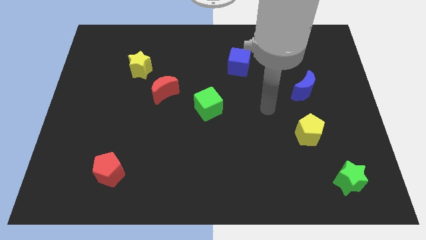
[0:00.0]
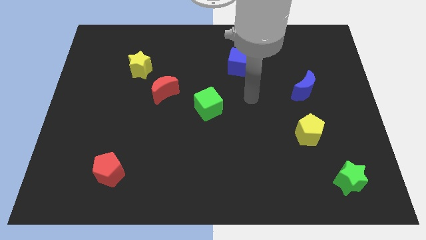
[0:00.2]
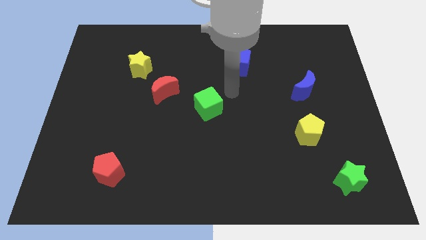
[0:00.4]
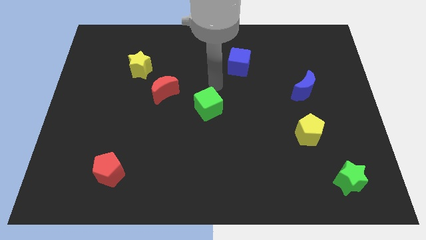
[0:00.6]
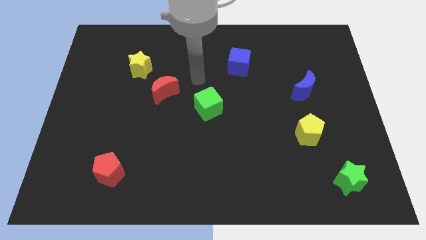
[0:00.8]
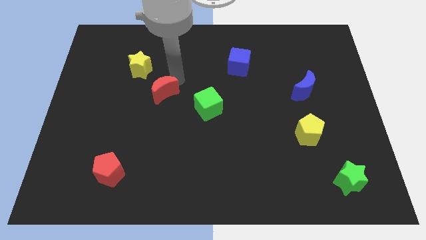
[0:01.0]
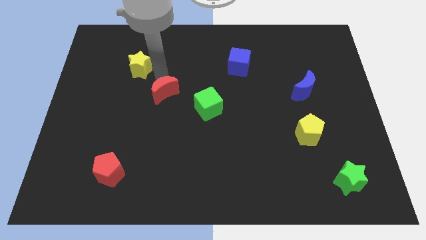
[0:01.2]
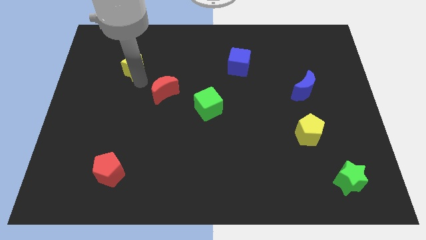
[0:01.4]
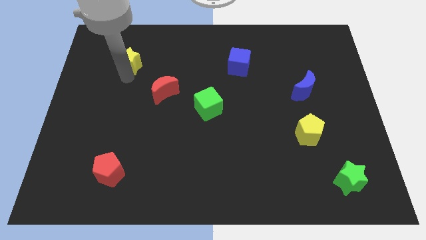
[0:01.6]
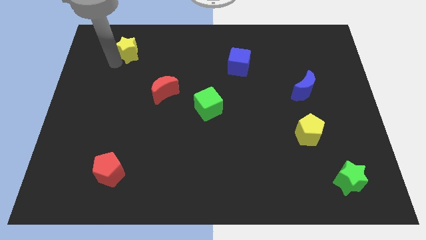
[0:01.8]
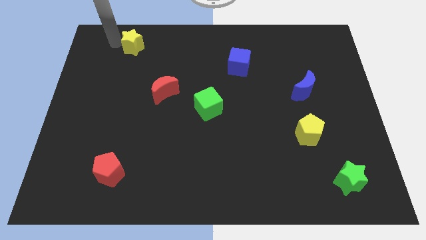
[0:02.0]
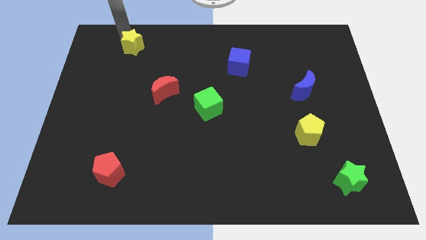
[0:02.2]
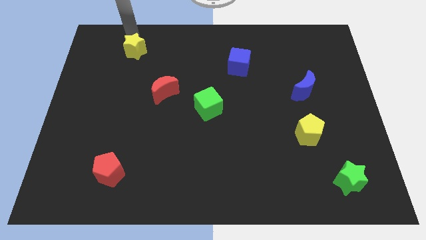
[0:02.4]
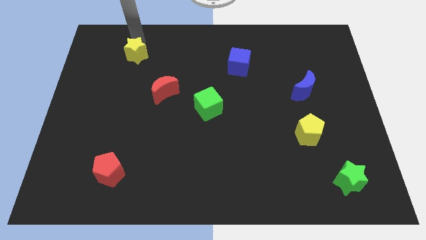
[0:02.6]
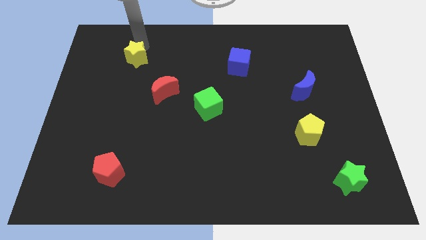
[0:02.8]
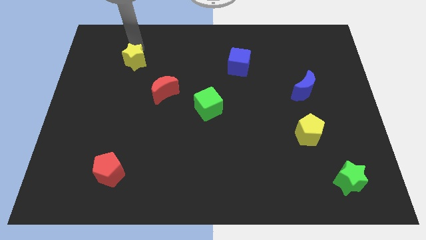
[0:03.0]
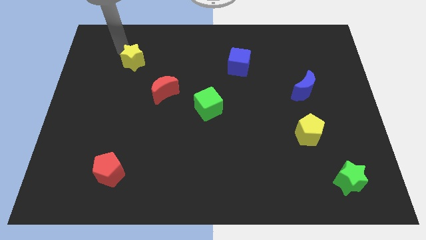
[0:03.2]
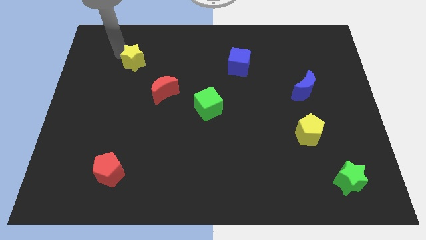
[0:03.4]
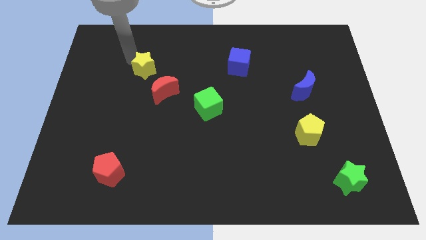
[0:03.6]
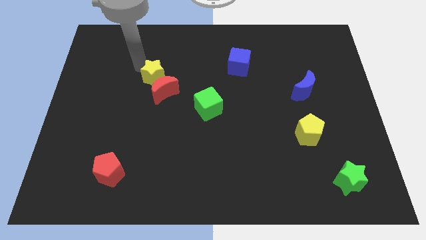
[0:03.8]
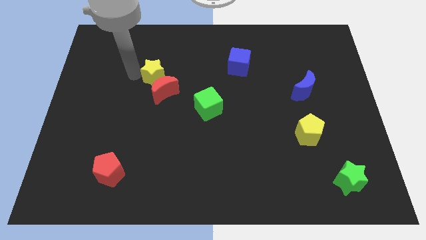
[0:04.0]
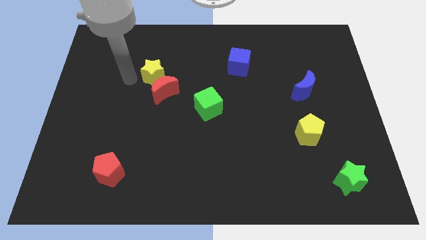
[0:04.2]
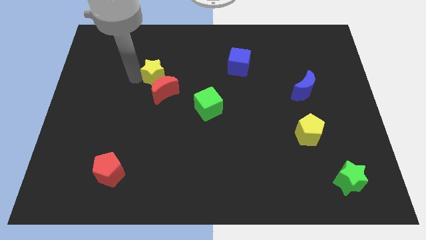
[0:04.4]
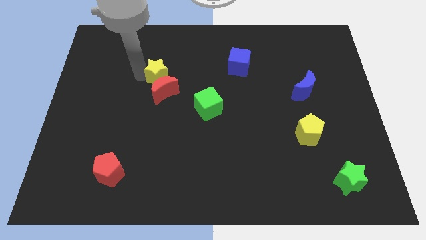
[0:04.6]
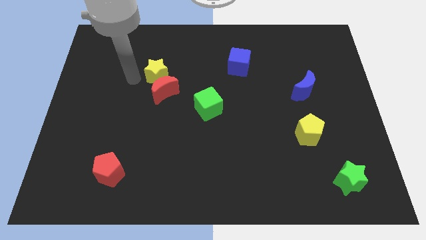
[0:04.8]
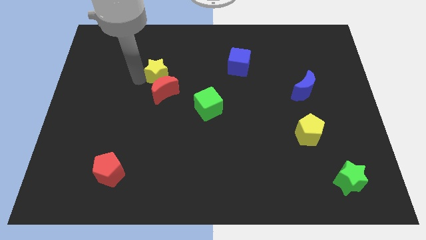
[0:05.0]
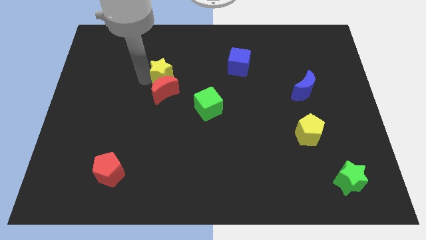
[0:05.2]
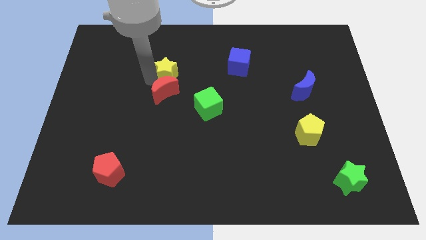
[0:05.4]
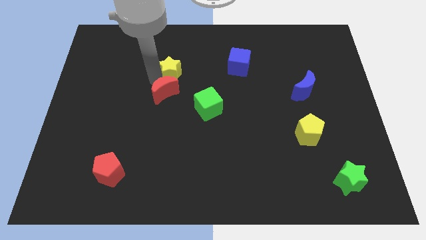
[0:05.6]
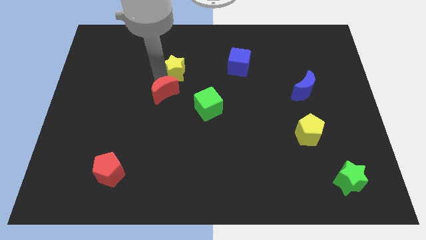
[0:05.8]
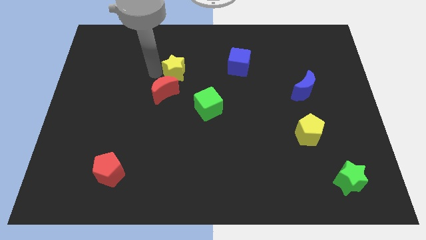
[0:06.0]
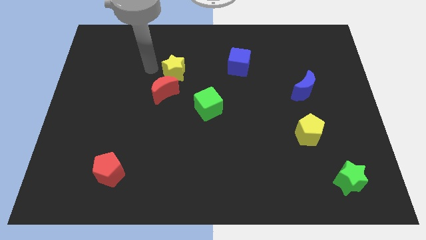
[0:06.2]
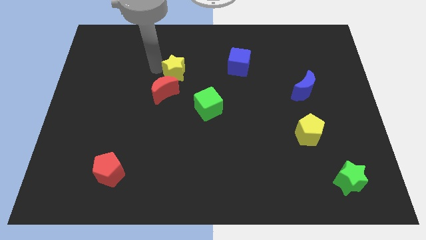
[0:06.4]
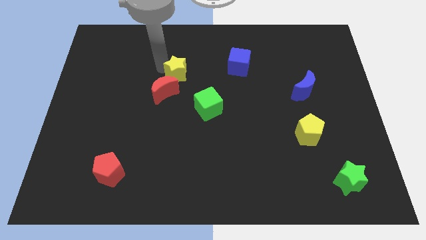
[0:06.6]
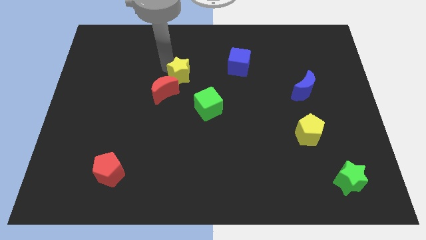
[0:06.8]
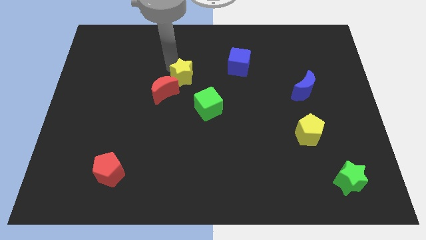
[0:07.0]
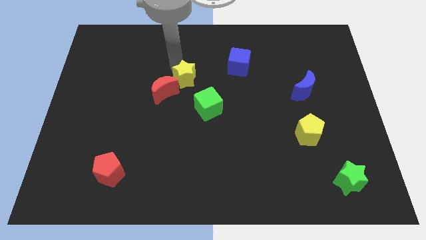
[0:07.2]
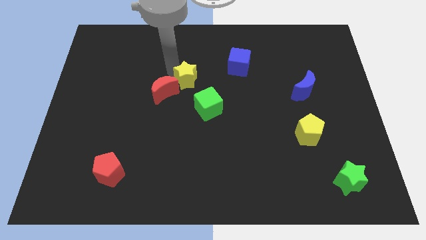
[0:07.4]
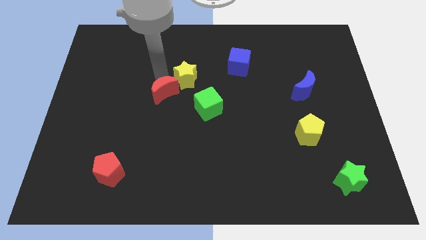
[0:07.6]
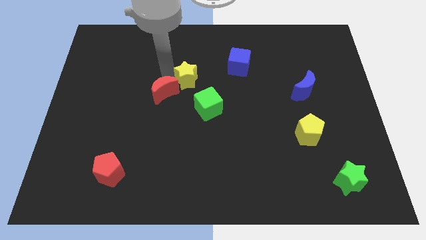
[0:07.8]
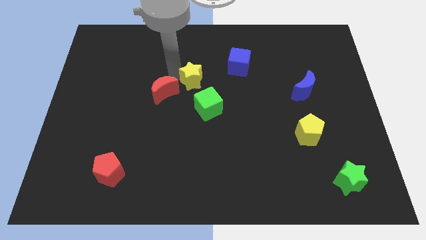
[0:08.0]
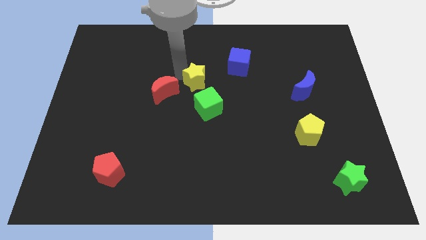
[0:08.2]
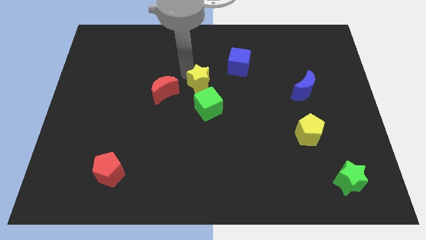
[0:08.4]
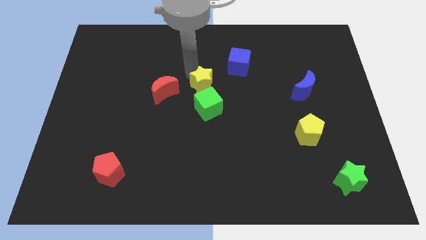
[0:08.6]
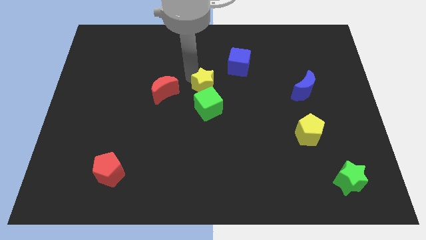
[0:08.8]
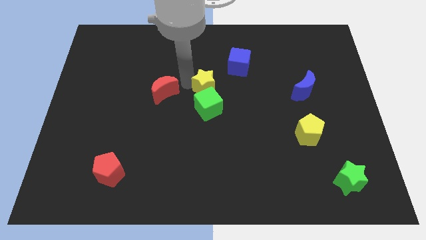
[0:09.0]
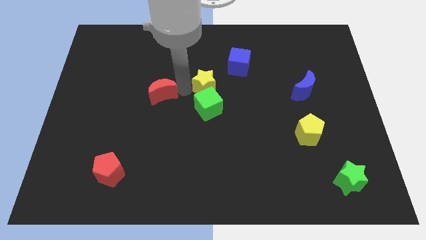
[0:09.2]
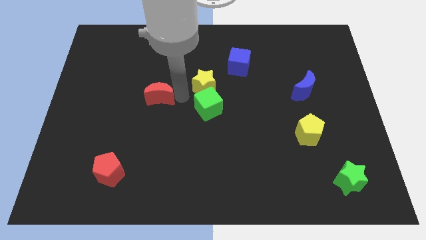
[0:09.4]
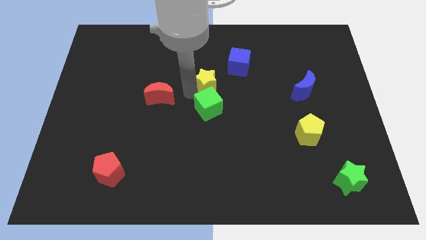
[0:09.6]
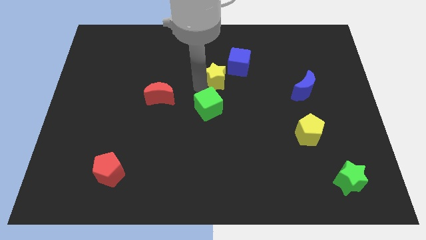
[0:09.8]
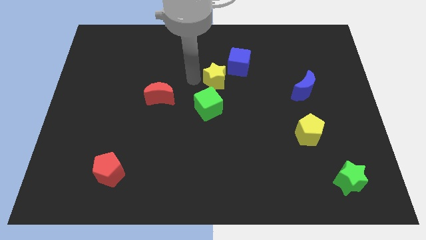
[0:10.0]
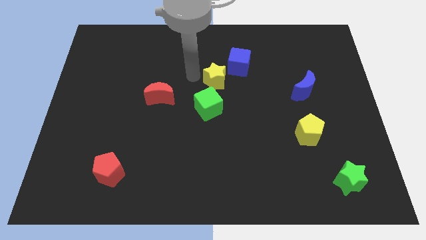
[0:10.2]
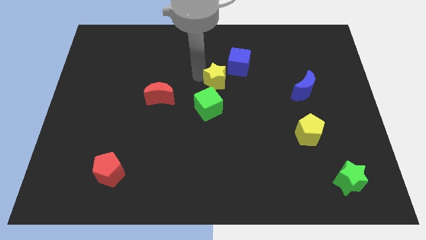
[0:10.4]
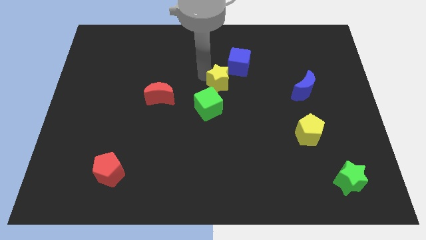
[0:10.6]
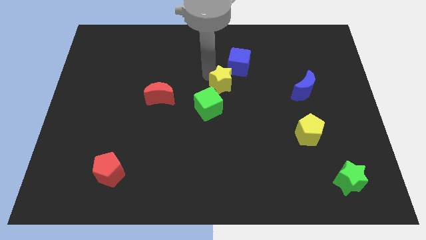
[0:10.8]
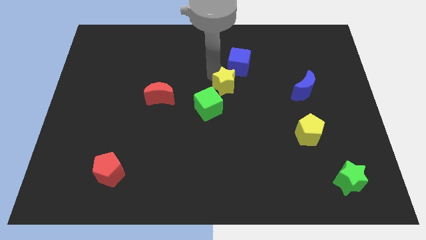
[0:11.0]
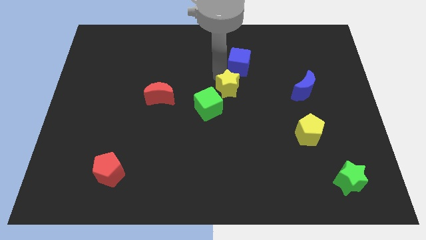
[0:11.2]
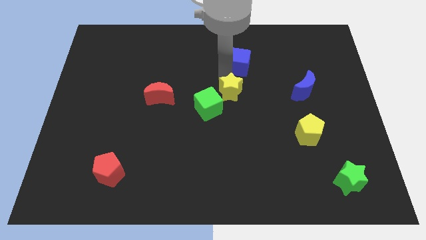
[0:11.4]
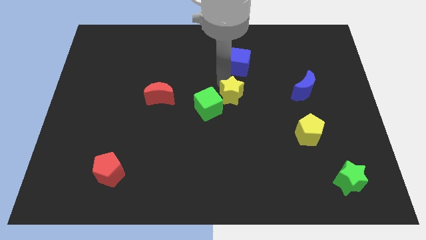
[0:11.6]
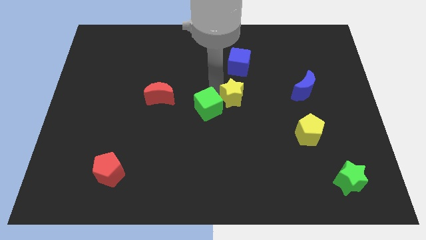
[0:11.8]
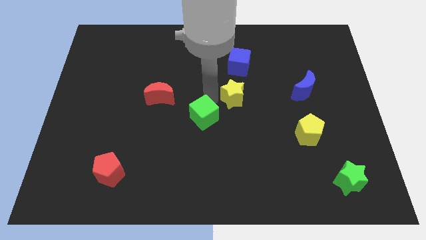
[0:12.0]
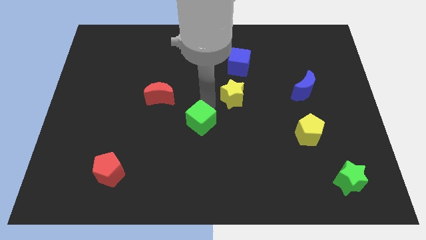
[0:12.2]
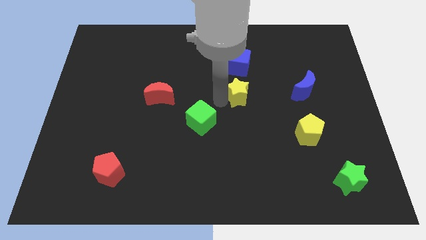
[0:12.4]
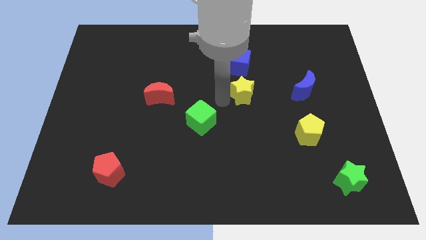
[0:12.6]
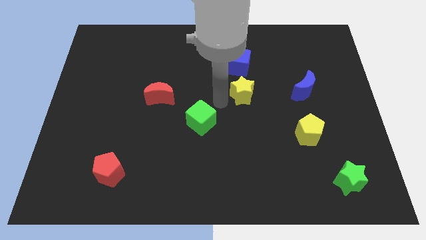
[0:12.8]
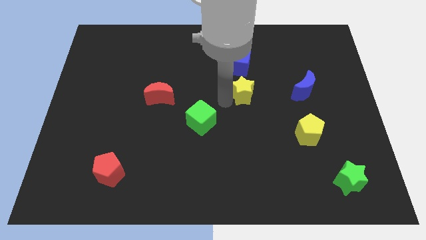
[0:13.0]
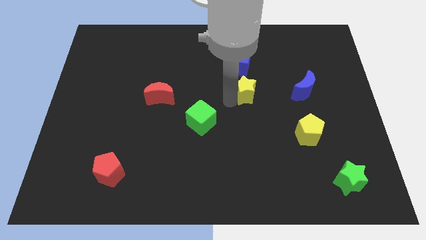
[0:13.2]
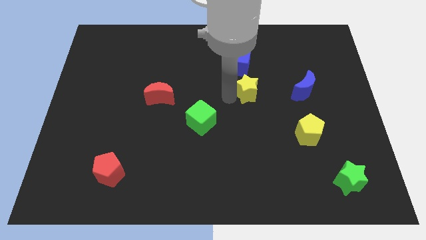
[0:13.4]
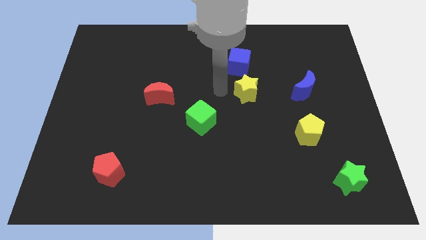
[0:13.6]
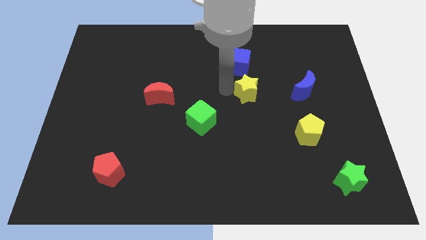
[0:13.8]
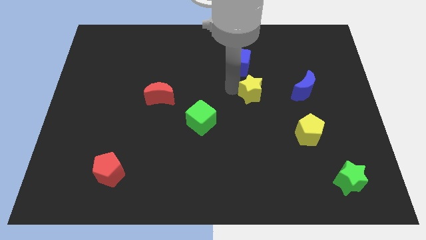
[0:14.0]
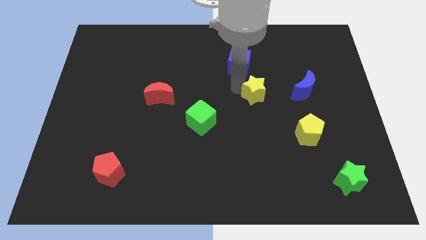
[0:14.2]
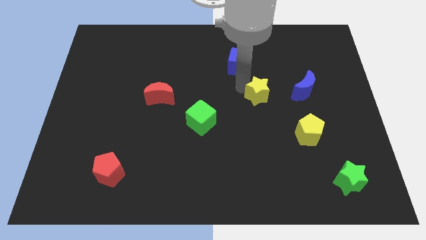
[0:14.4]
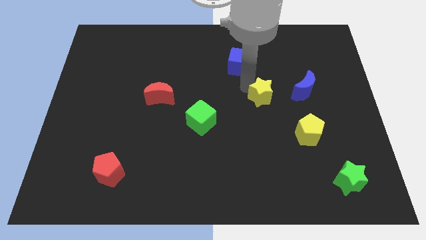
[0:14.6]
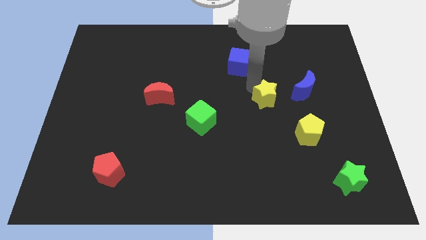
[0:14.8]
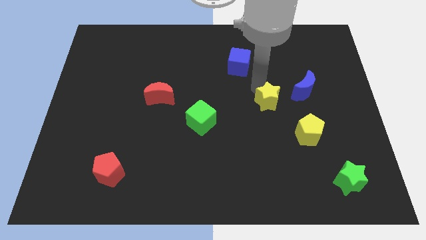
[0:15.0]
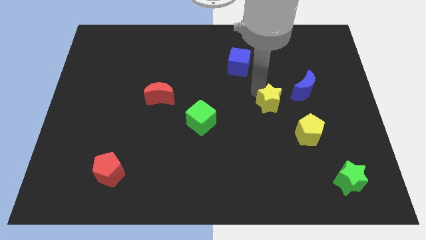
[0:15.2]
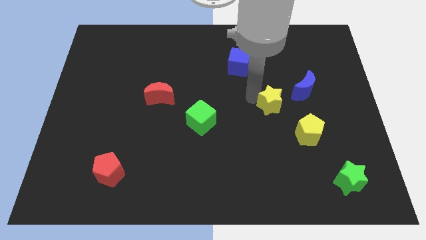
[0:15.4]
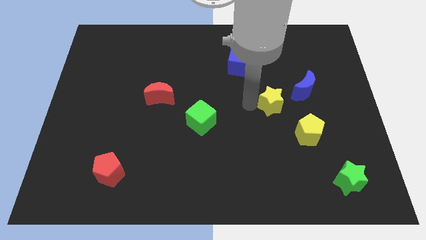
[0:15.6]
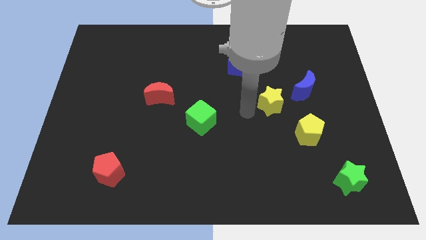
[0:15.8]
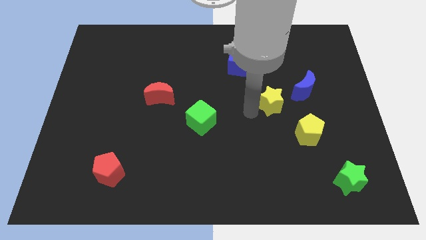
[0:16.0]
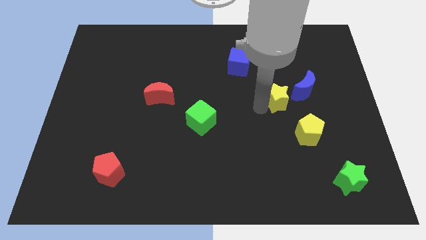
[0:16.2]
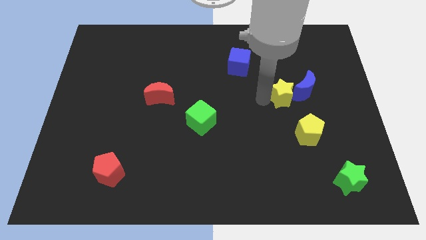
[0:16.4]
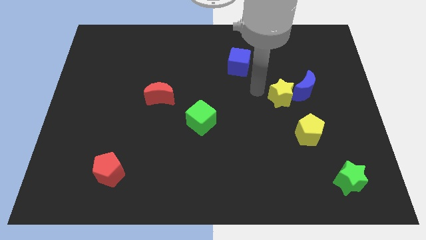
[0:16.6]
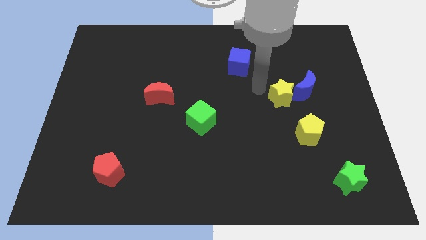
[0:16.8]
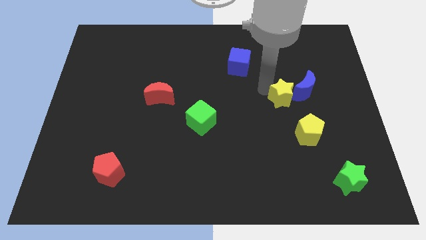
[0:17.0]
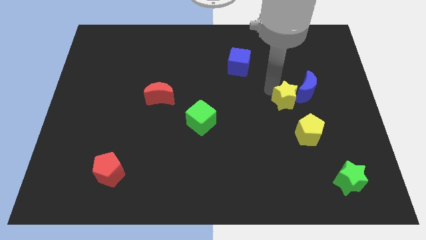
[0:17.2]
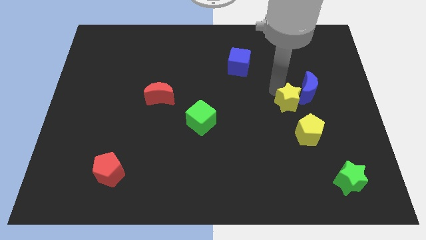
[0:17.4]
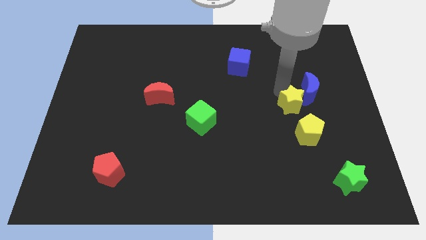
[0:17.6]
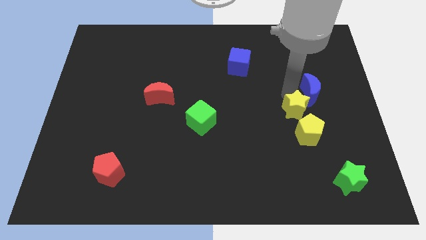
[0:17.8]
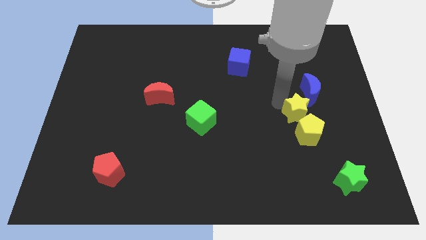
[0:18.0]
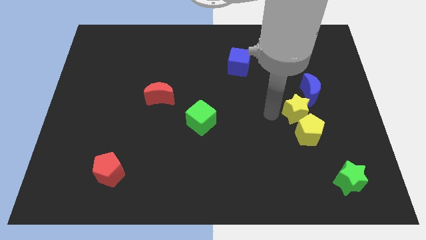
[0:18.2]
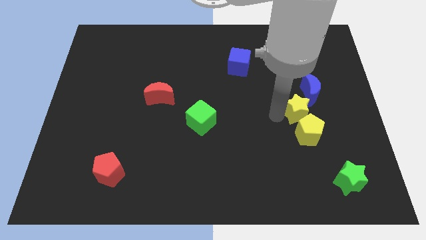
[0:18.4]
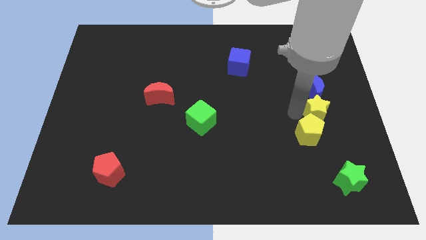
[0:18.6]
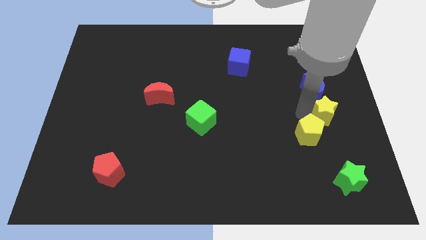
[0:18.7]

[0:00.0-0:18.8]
slide the yellow star to the right side of the board
